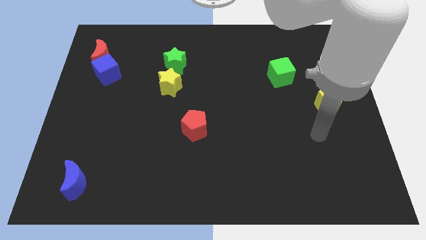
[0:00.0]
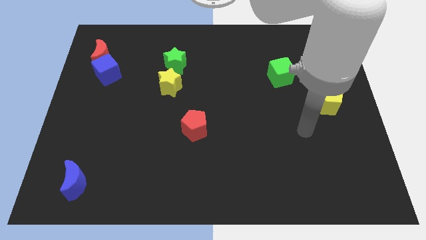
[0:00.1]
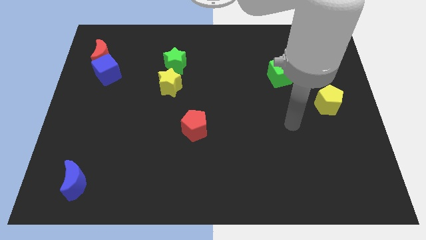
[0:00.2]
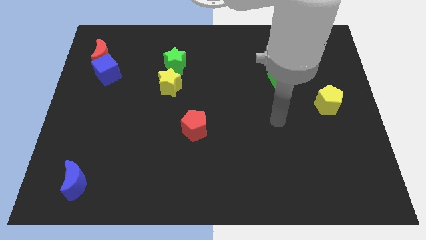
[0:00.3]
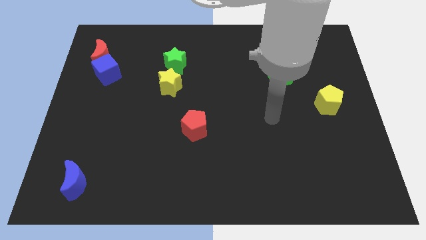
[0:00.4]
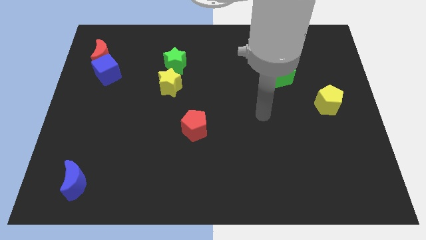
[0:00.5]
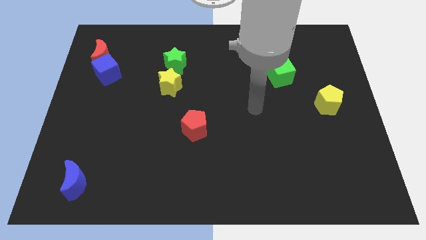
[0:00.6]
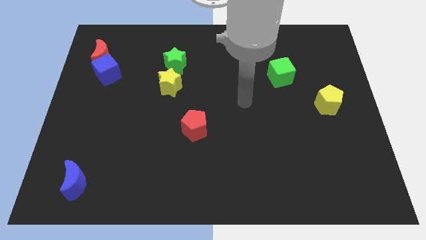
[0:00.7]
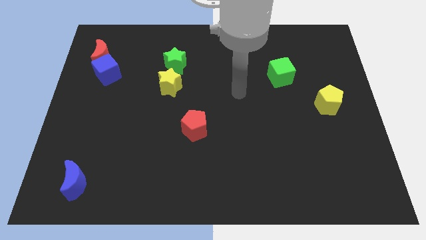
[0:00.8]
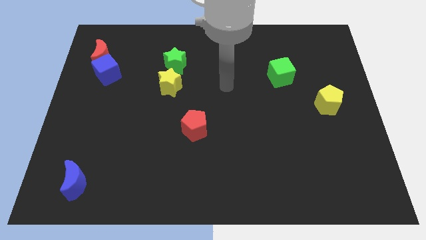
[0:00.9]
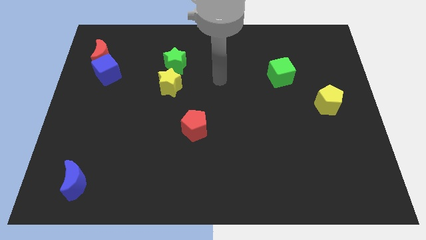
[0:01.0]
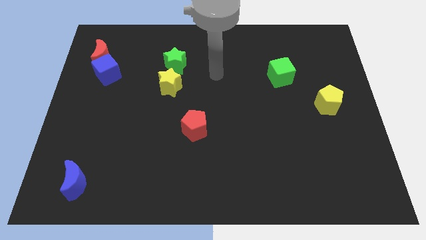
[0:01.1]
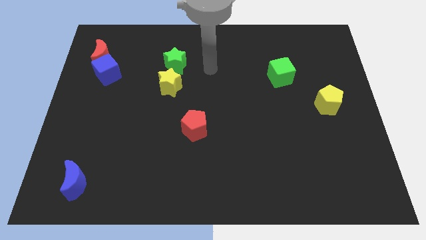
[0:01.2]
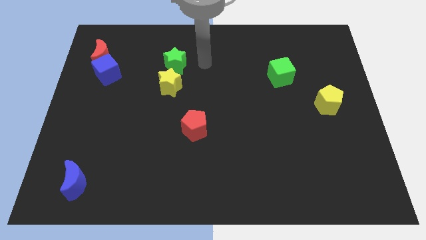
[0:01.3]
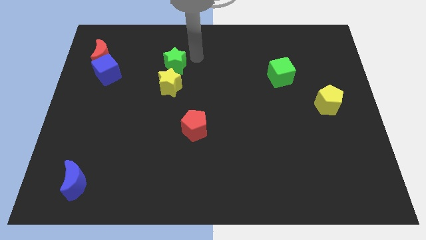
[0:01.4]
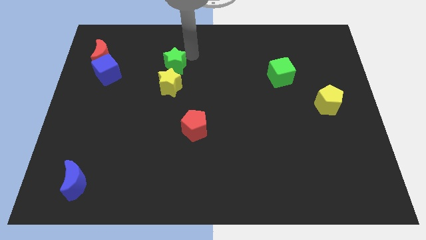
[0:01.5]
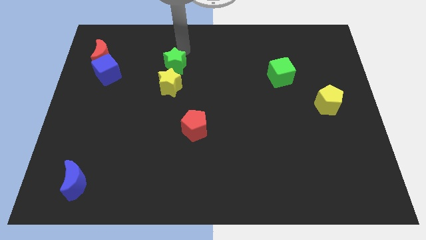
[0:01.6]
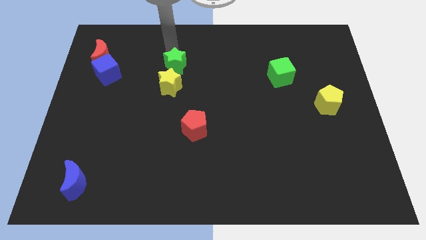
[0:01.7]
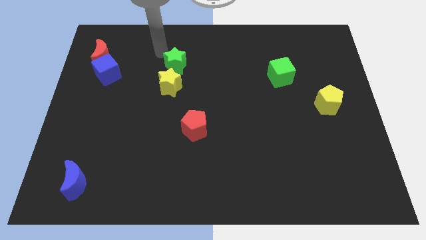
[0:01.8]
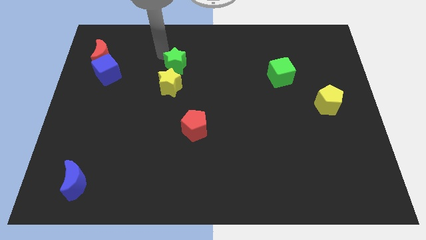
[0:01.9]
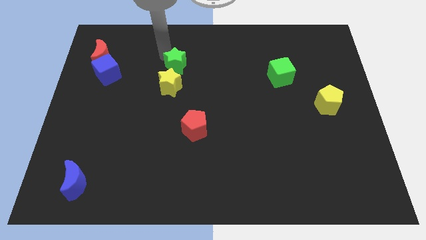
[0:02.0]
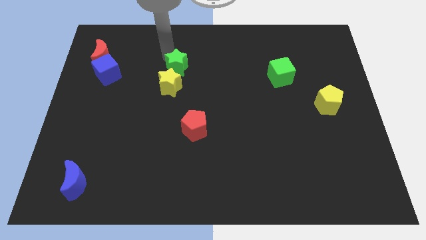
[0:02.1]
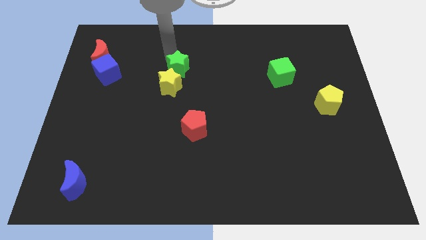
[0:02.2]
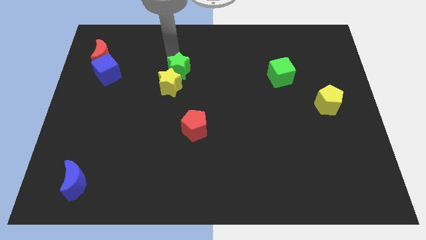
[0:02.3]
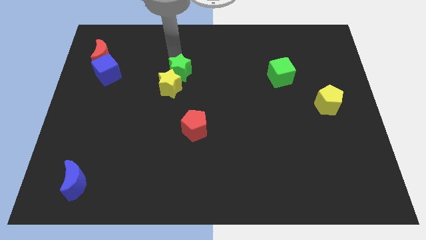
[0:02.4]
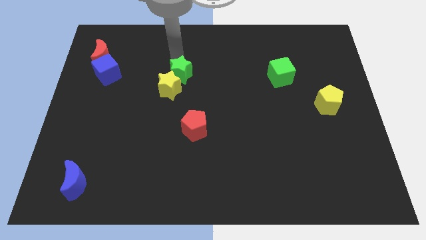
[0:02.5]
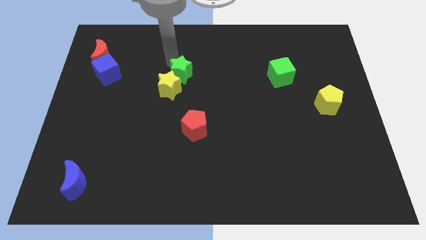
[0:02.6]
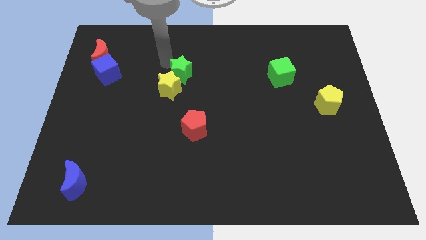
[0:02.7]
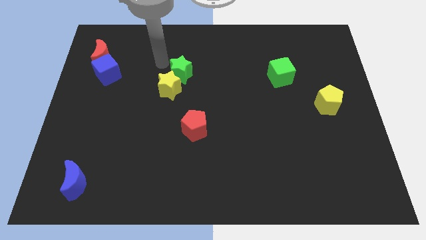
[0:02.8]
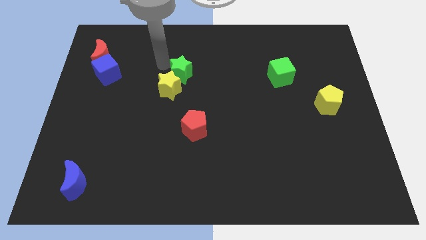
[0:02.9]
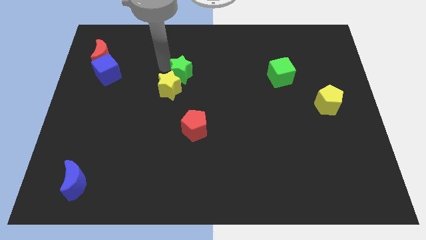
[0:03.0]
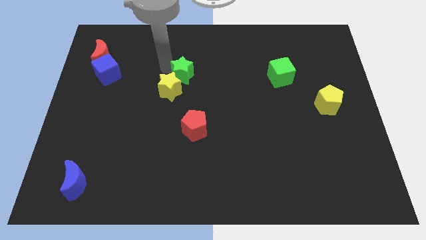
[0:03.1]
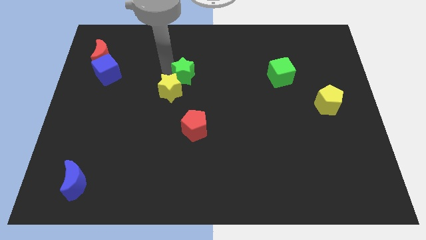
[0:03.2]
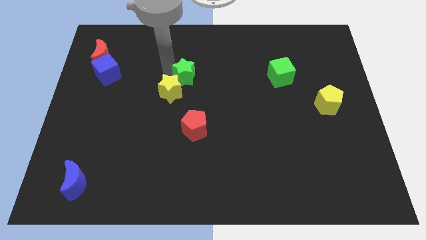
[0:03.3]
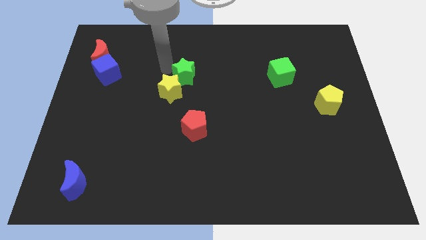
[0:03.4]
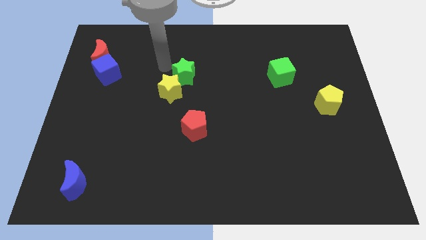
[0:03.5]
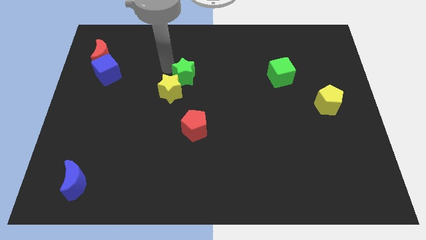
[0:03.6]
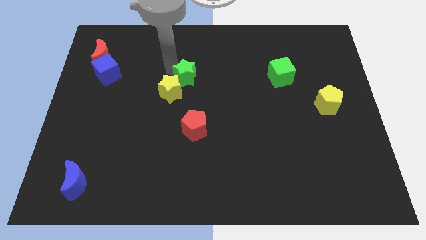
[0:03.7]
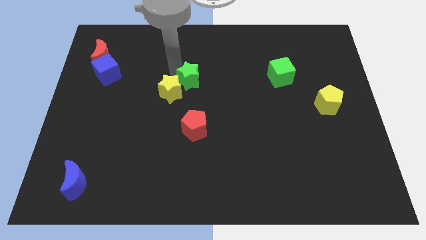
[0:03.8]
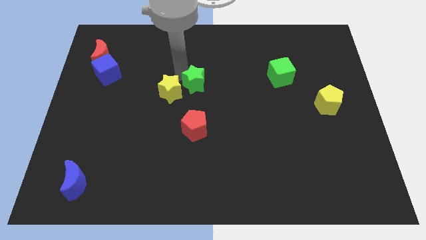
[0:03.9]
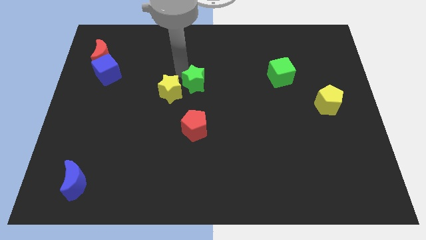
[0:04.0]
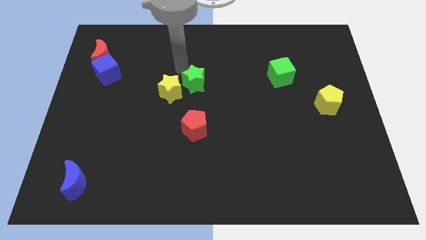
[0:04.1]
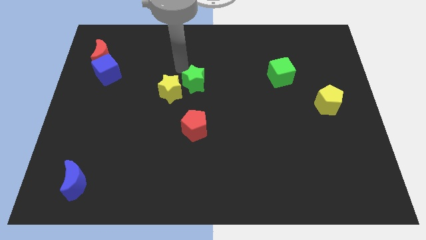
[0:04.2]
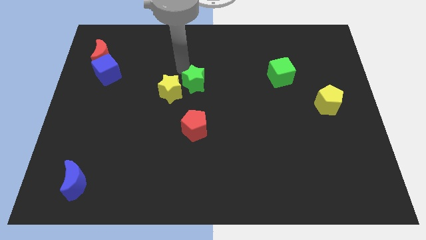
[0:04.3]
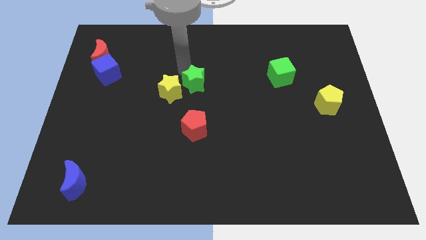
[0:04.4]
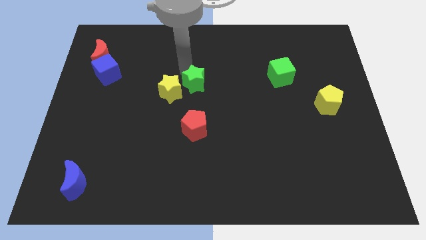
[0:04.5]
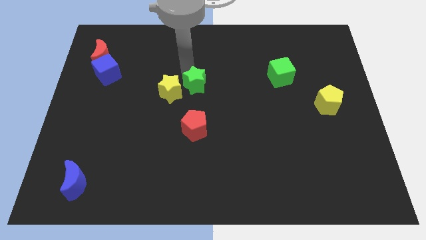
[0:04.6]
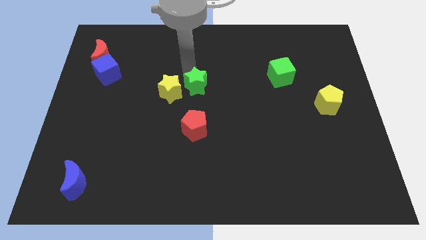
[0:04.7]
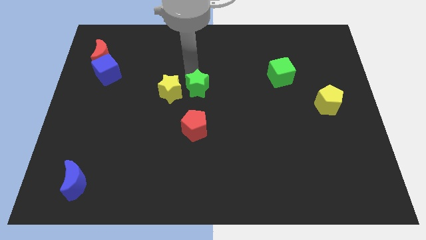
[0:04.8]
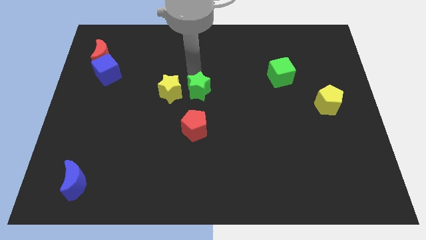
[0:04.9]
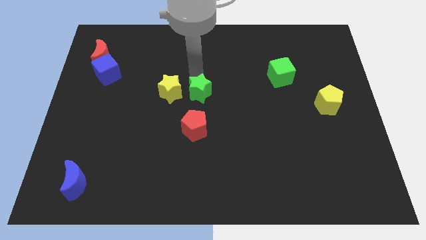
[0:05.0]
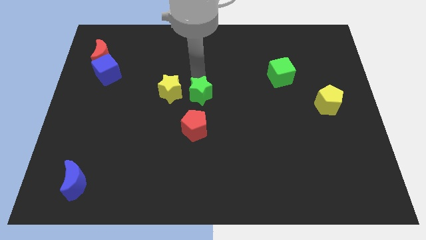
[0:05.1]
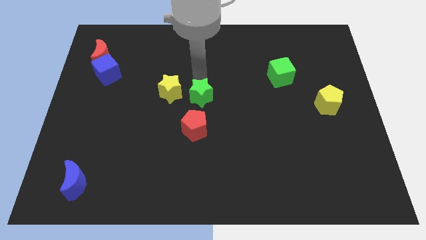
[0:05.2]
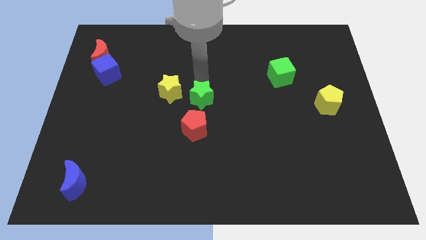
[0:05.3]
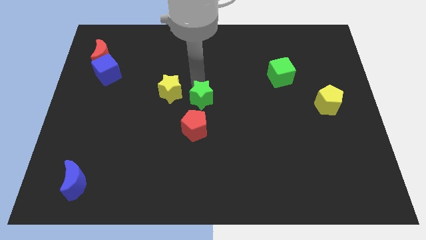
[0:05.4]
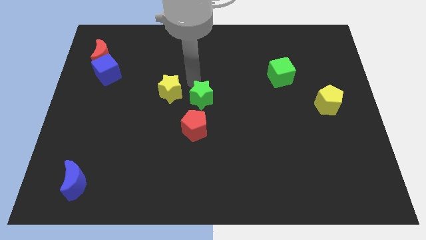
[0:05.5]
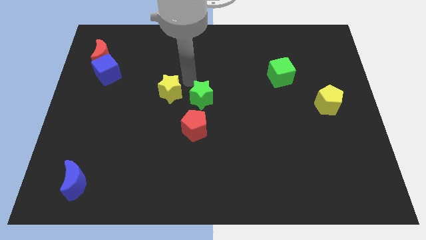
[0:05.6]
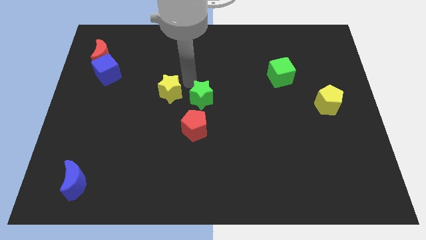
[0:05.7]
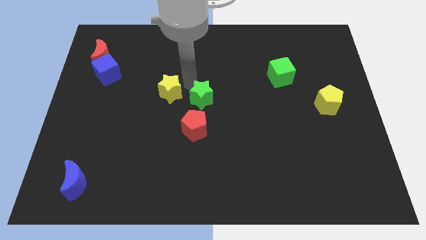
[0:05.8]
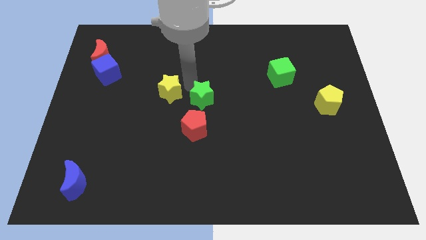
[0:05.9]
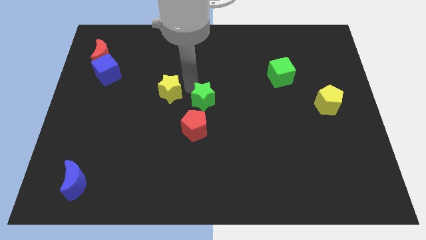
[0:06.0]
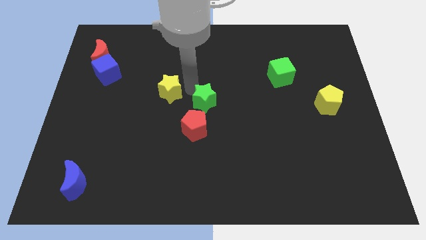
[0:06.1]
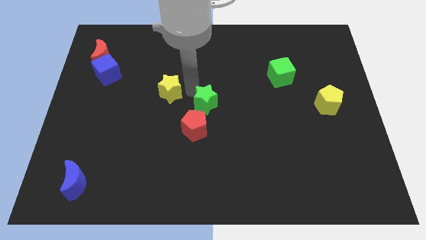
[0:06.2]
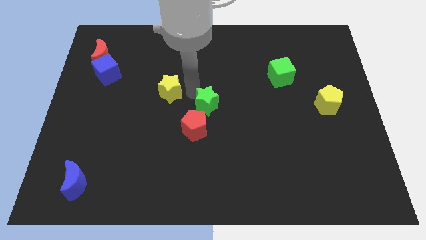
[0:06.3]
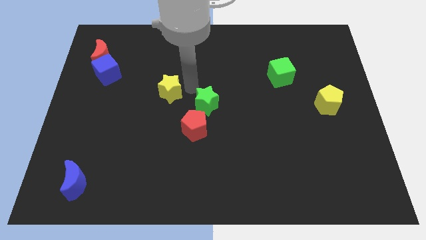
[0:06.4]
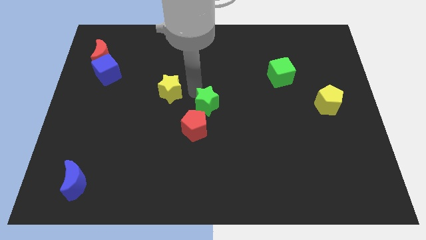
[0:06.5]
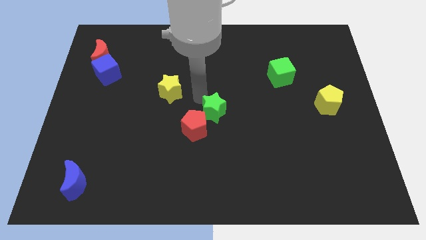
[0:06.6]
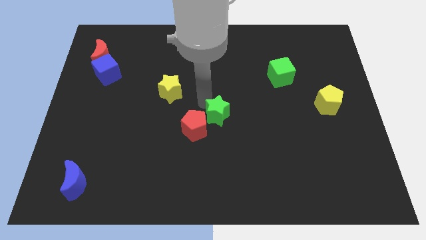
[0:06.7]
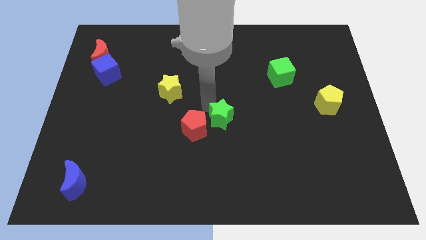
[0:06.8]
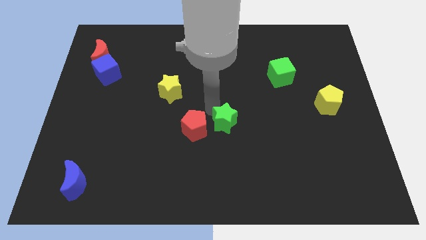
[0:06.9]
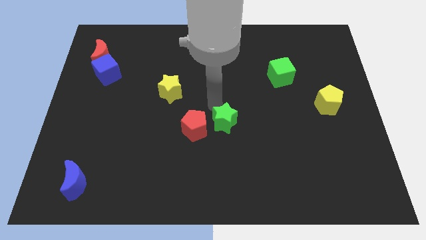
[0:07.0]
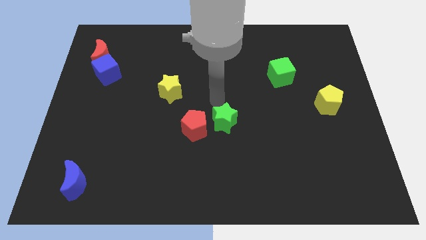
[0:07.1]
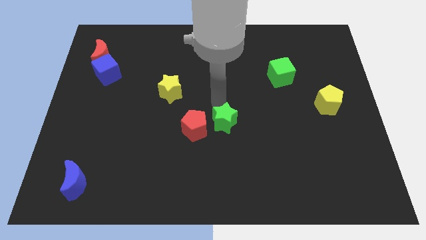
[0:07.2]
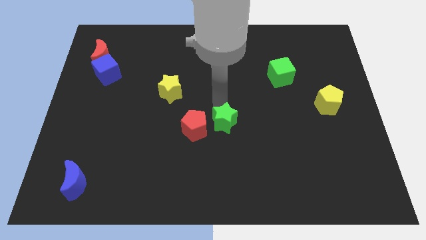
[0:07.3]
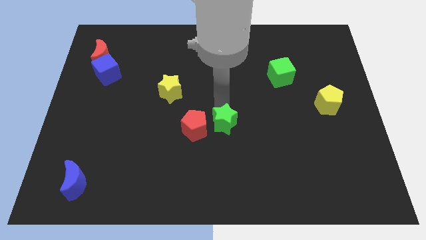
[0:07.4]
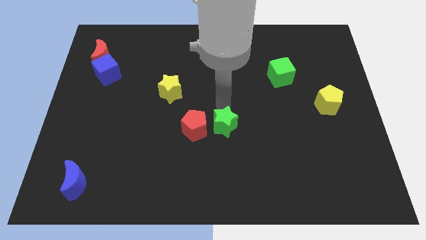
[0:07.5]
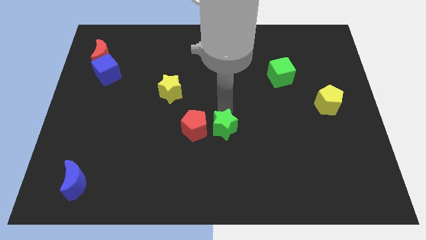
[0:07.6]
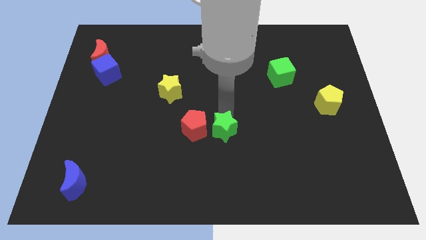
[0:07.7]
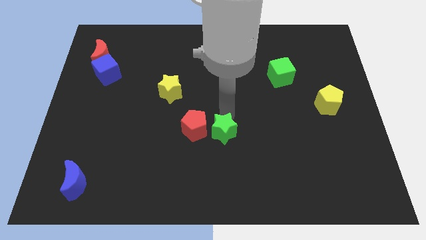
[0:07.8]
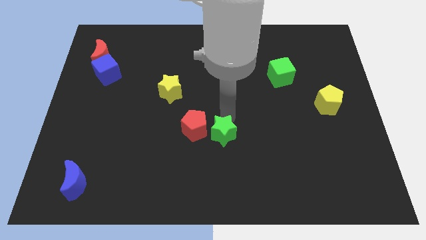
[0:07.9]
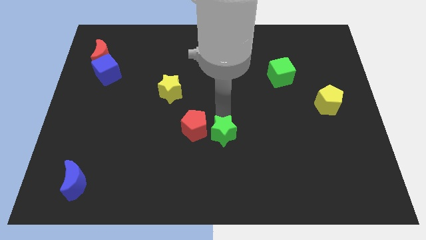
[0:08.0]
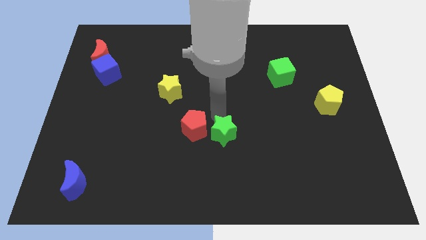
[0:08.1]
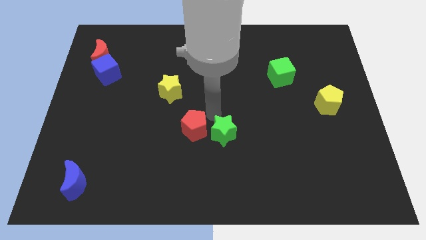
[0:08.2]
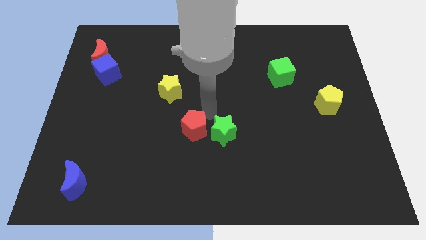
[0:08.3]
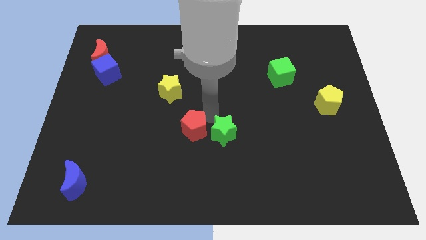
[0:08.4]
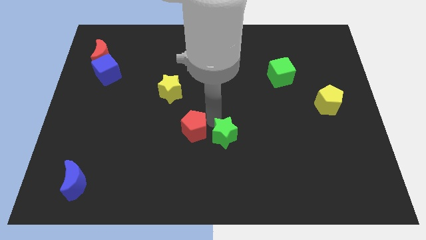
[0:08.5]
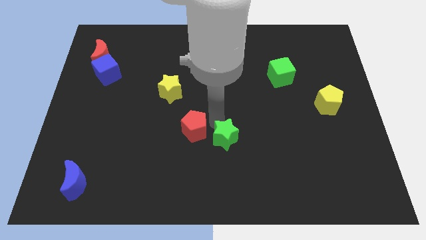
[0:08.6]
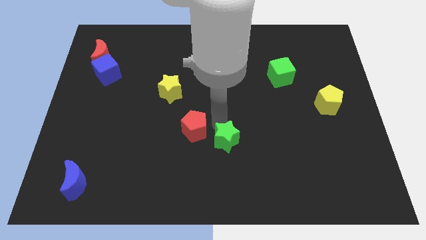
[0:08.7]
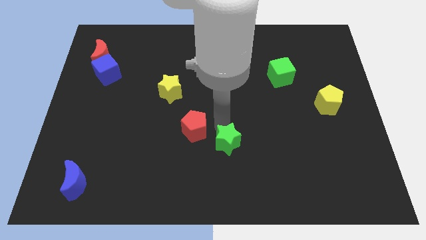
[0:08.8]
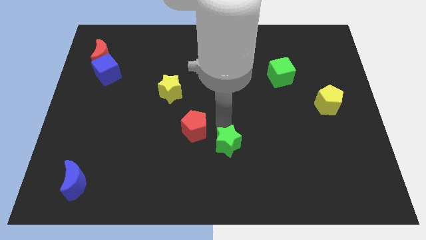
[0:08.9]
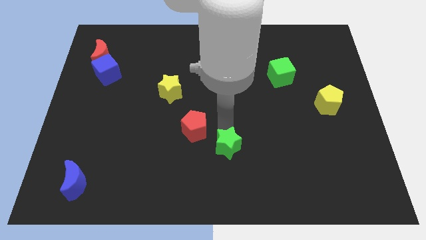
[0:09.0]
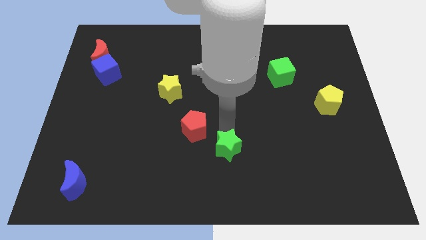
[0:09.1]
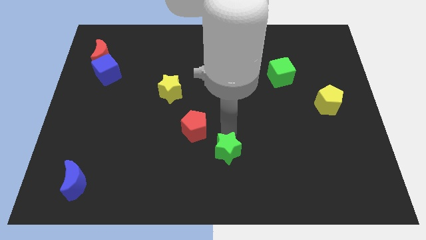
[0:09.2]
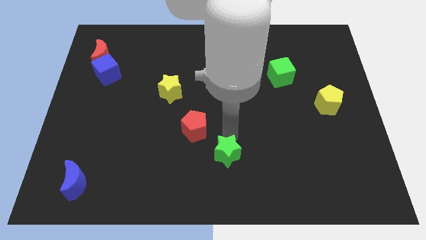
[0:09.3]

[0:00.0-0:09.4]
push the green star to the bottom side
